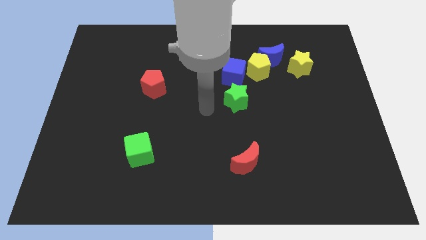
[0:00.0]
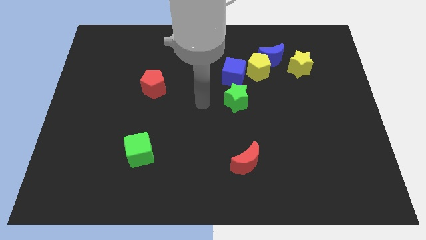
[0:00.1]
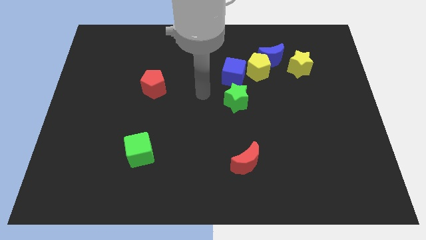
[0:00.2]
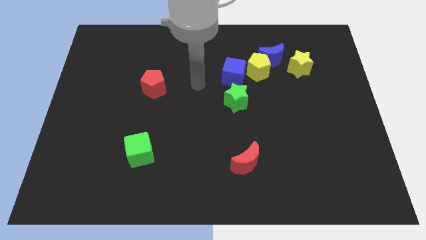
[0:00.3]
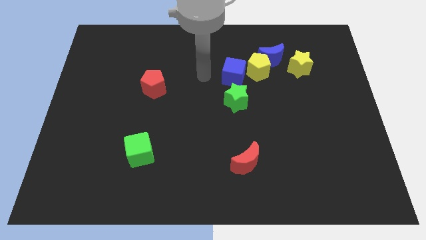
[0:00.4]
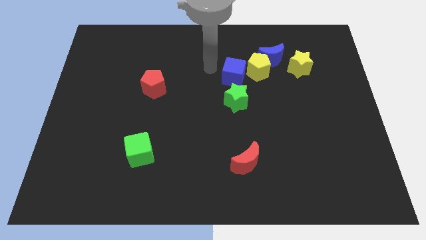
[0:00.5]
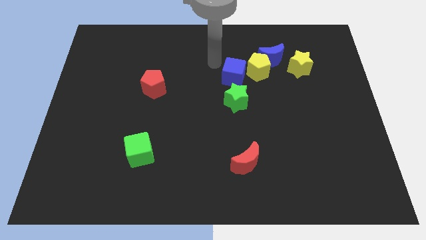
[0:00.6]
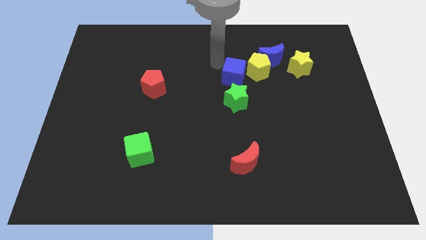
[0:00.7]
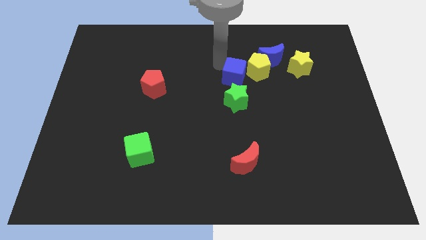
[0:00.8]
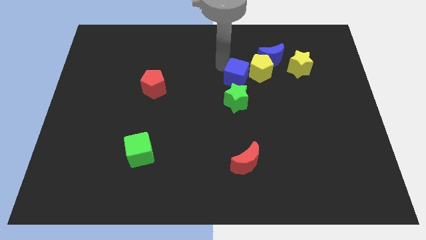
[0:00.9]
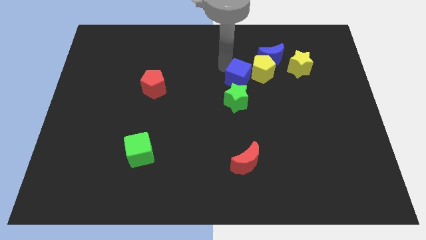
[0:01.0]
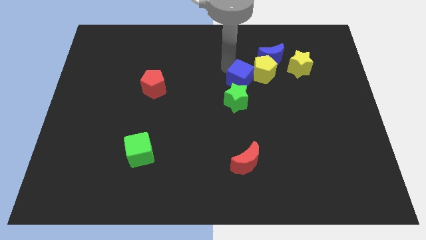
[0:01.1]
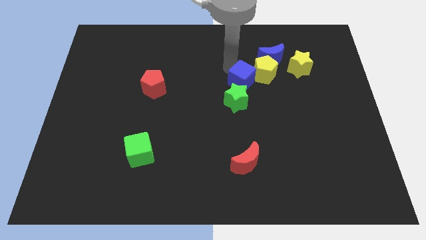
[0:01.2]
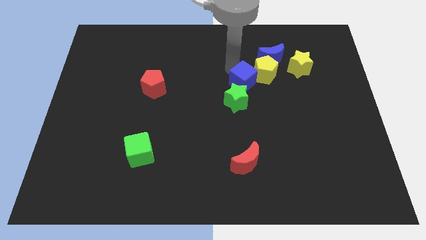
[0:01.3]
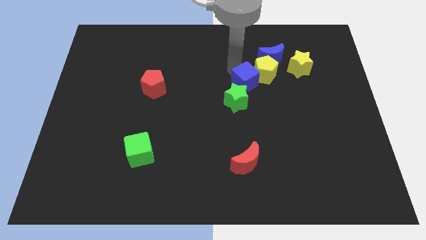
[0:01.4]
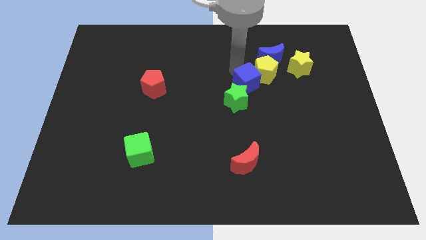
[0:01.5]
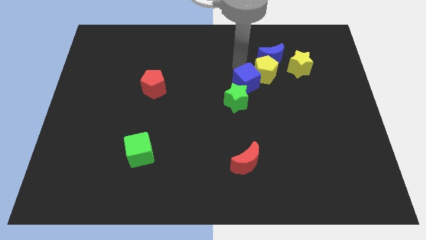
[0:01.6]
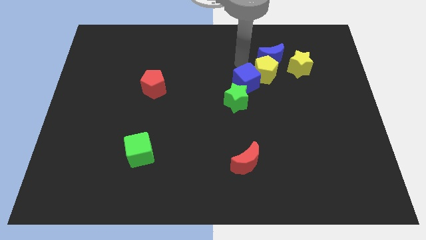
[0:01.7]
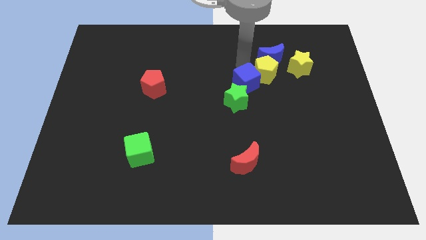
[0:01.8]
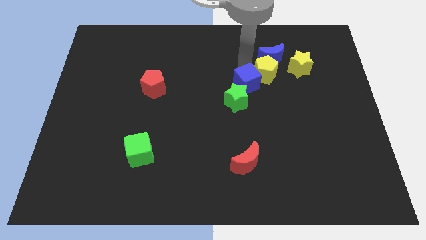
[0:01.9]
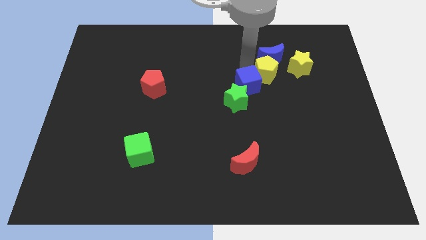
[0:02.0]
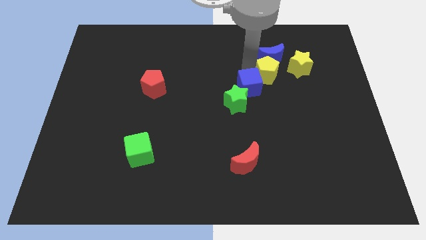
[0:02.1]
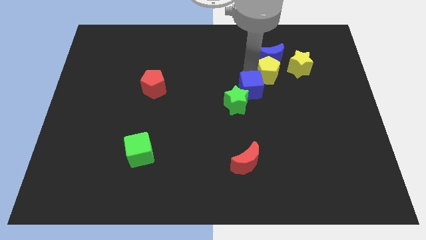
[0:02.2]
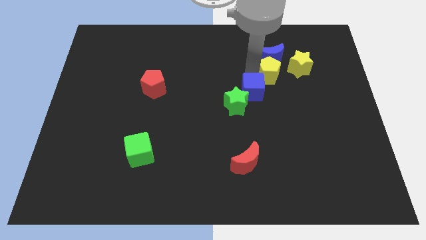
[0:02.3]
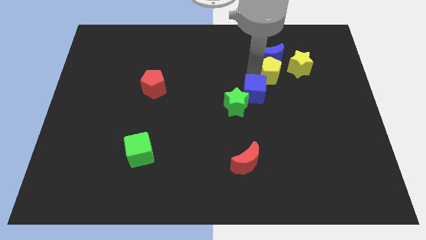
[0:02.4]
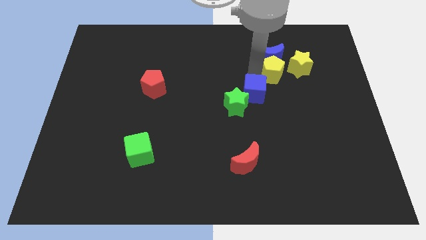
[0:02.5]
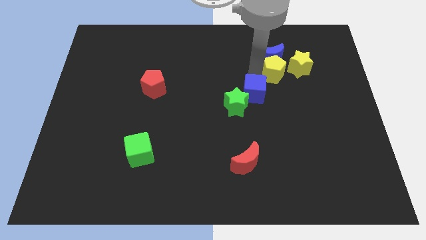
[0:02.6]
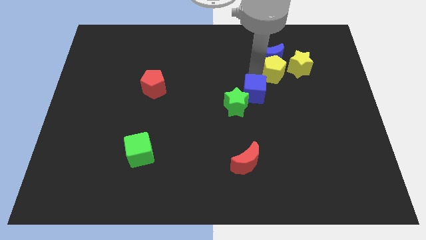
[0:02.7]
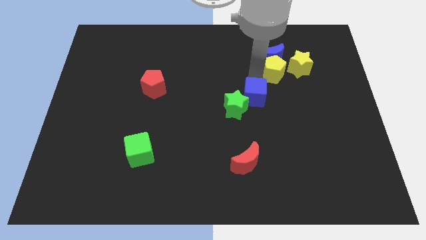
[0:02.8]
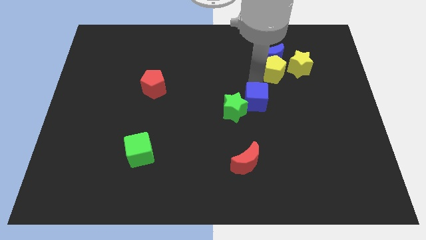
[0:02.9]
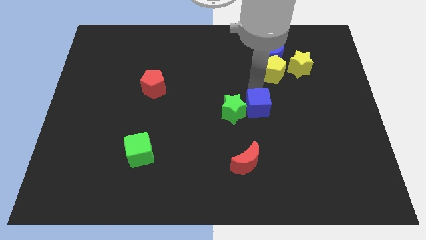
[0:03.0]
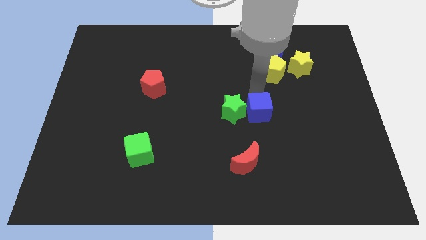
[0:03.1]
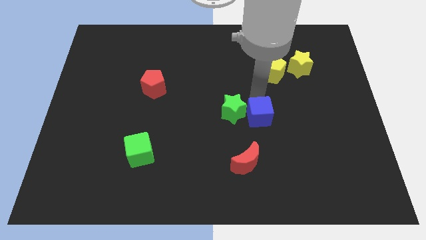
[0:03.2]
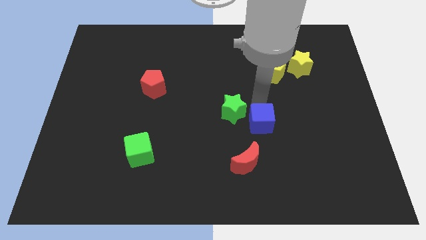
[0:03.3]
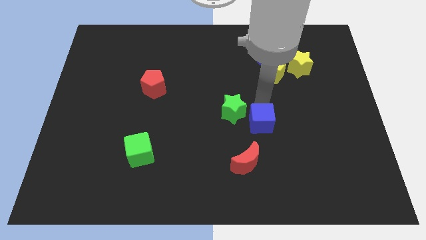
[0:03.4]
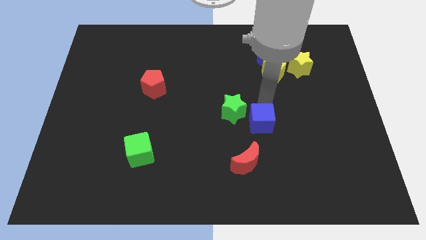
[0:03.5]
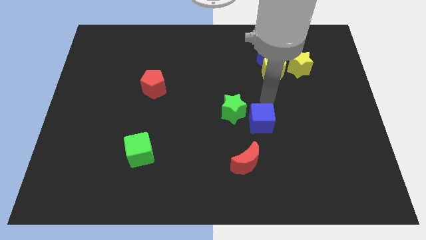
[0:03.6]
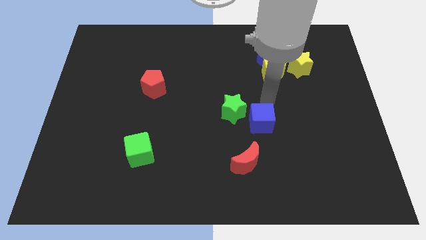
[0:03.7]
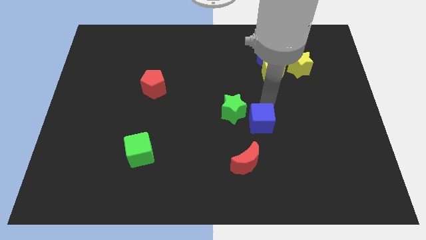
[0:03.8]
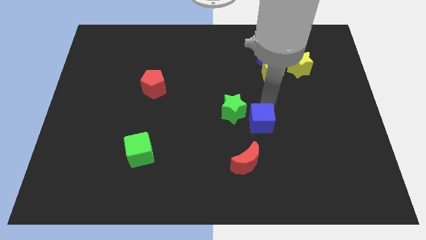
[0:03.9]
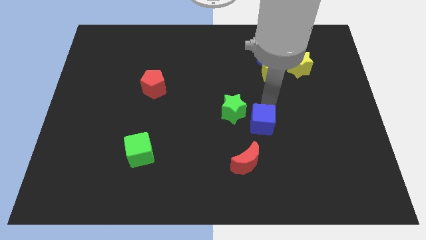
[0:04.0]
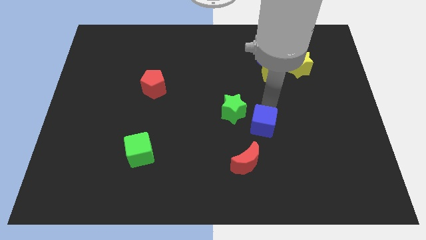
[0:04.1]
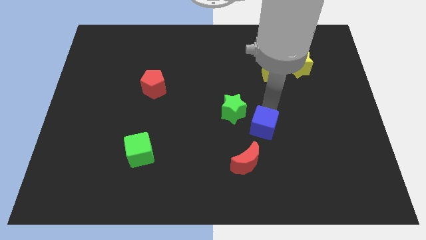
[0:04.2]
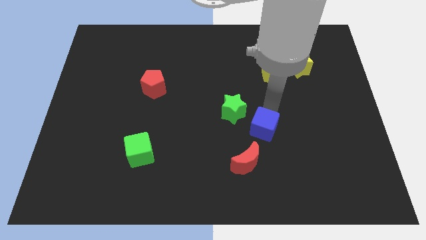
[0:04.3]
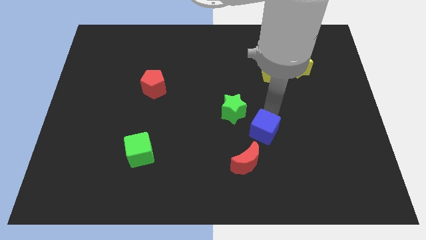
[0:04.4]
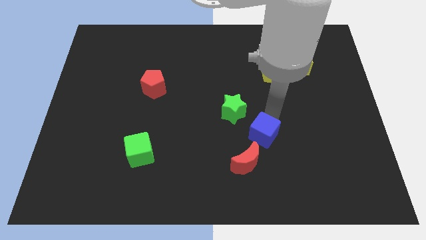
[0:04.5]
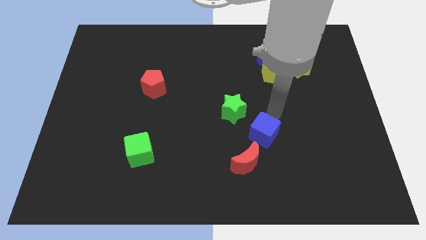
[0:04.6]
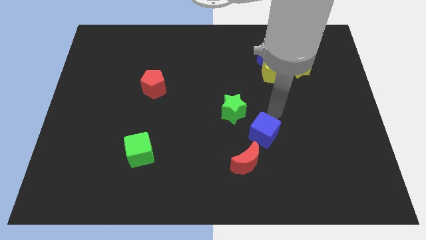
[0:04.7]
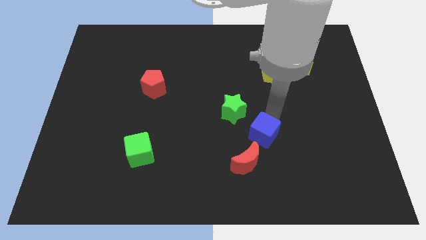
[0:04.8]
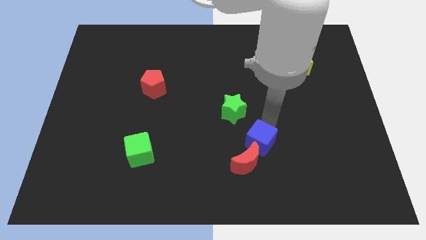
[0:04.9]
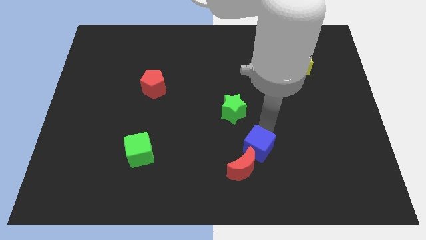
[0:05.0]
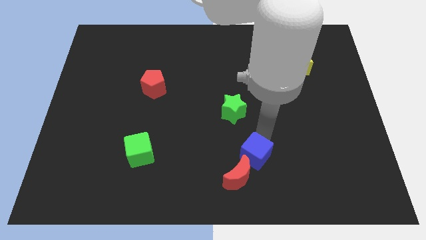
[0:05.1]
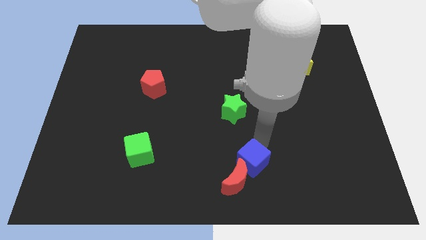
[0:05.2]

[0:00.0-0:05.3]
push the blue cube close to the red moon

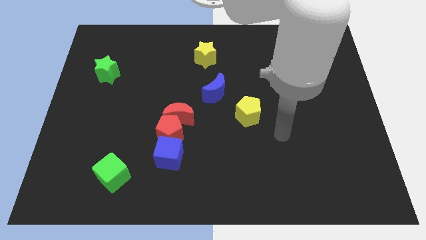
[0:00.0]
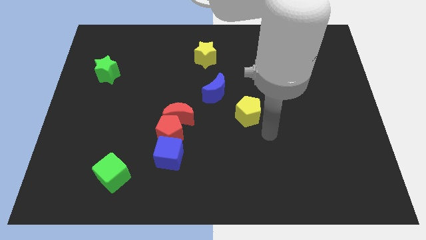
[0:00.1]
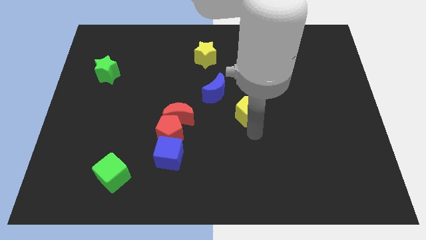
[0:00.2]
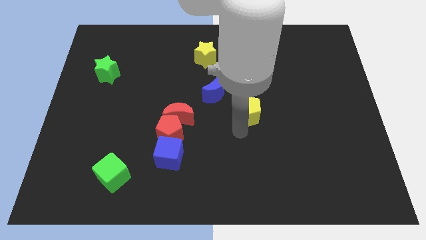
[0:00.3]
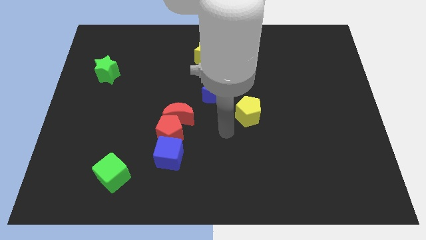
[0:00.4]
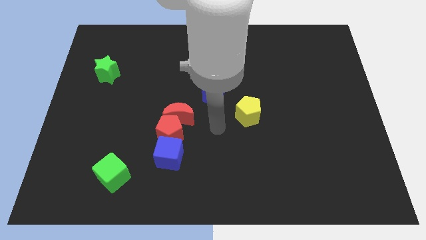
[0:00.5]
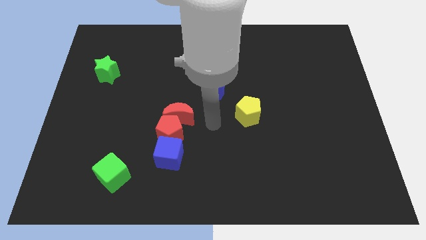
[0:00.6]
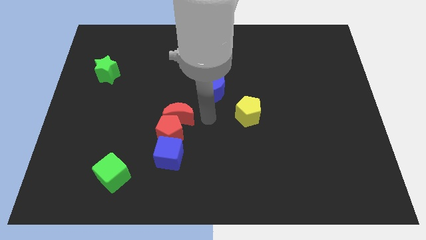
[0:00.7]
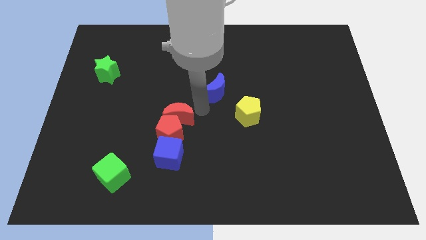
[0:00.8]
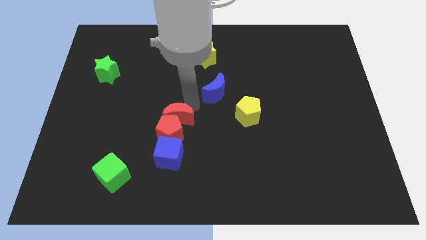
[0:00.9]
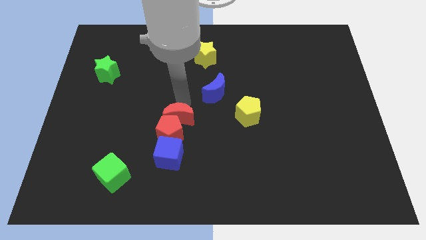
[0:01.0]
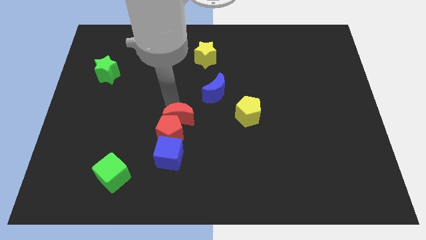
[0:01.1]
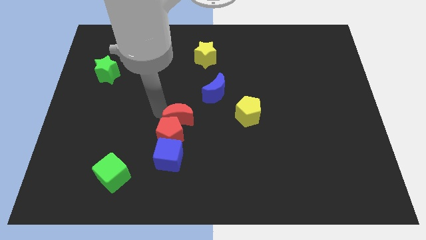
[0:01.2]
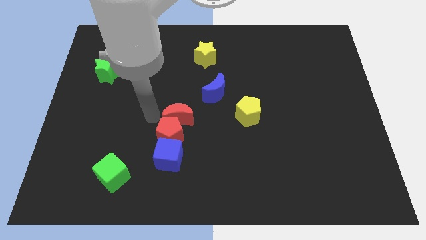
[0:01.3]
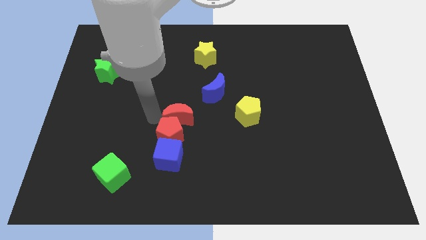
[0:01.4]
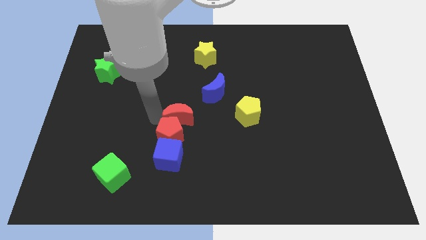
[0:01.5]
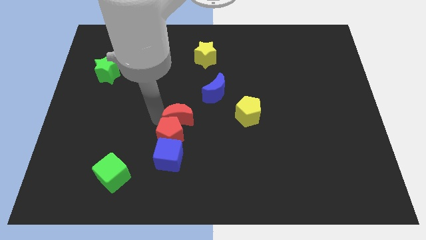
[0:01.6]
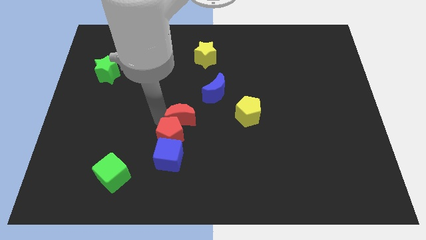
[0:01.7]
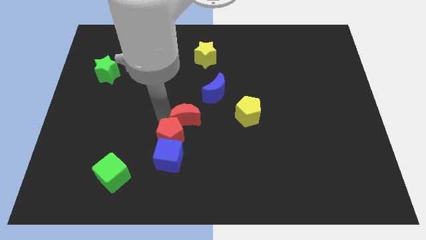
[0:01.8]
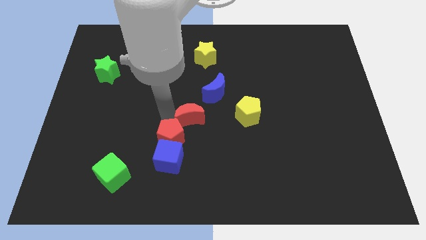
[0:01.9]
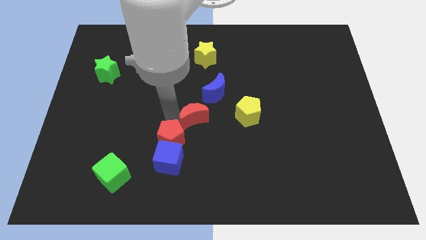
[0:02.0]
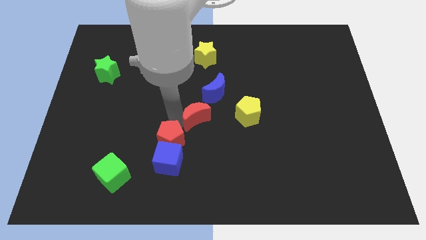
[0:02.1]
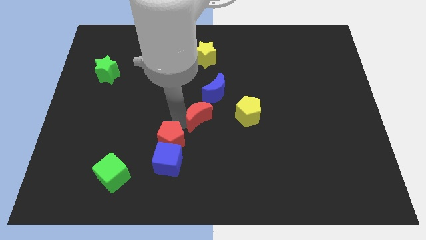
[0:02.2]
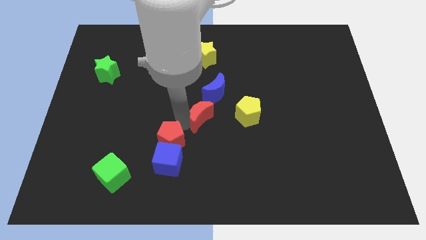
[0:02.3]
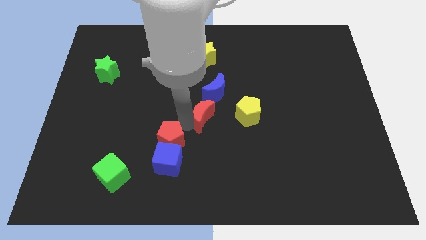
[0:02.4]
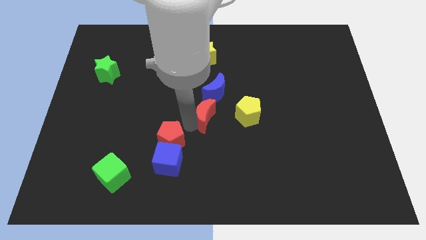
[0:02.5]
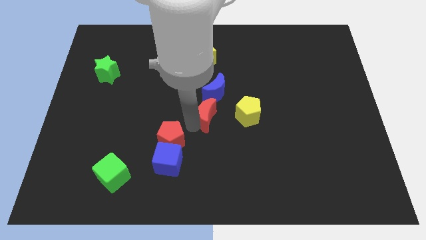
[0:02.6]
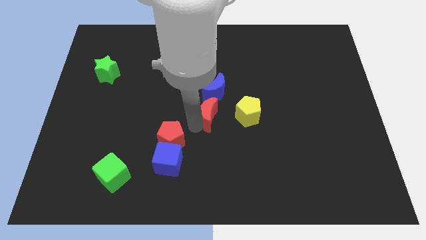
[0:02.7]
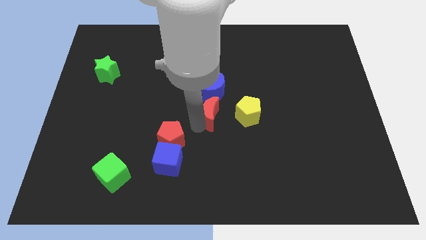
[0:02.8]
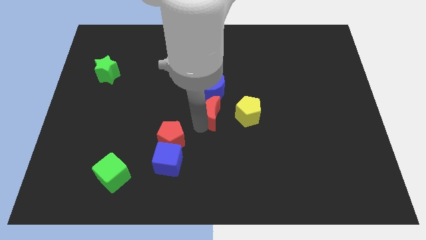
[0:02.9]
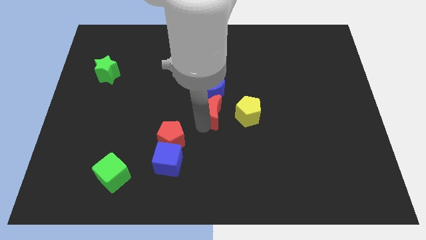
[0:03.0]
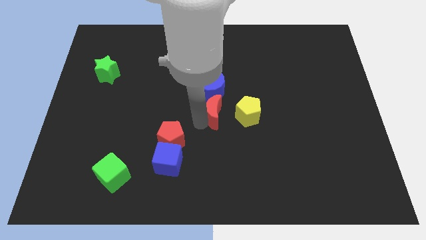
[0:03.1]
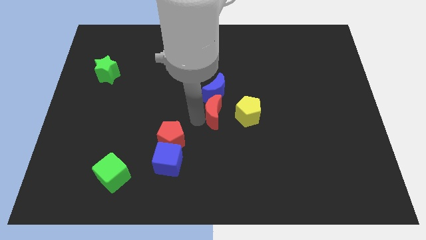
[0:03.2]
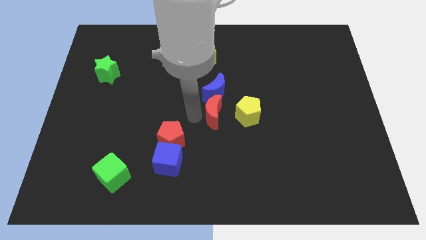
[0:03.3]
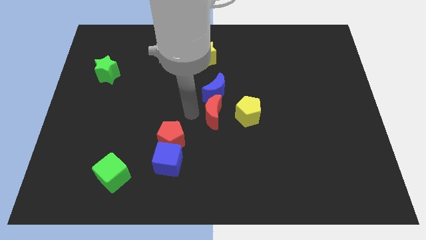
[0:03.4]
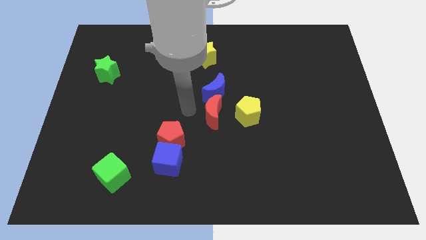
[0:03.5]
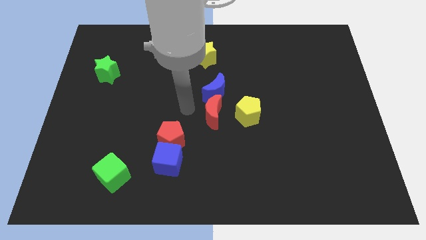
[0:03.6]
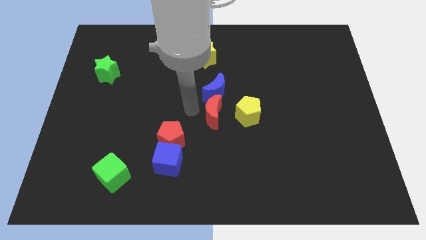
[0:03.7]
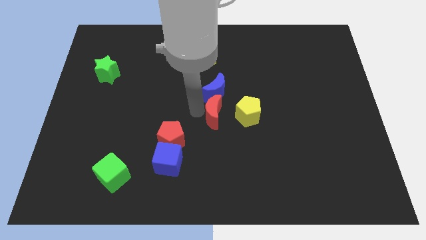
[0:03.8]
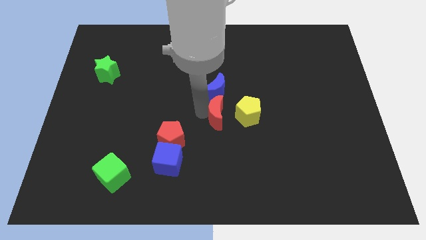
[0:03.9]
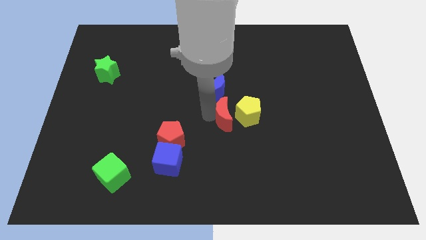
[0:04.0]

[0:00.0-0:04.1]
put the red moon close to the yellow pentagon
